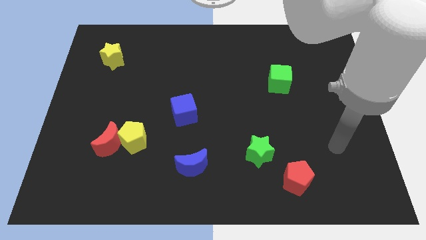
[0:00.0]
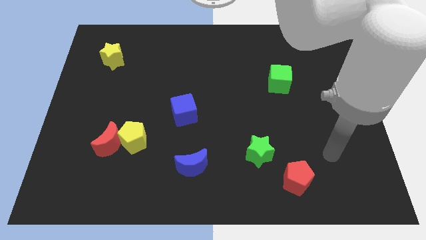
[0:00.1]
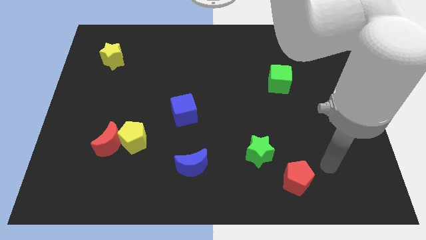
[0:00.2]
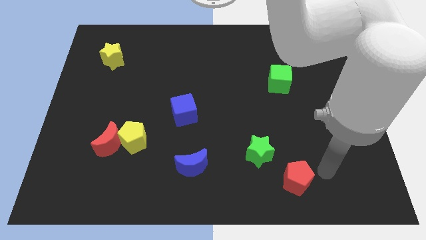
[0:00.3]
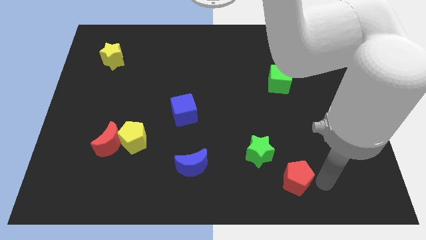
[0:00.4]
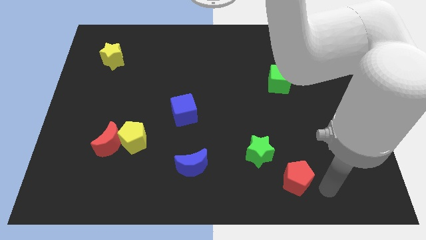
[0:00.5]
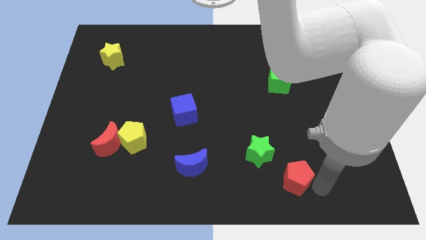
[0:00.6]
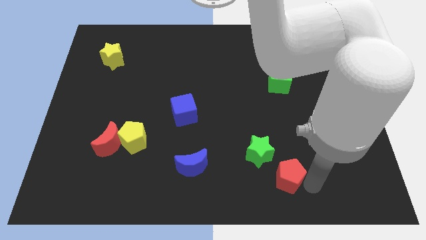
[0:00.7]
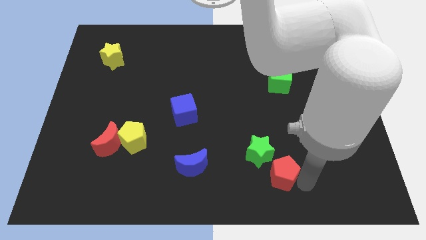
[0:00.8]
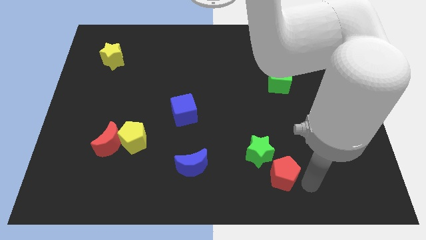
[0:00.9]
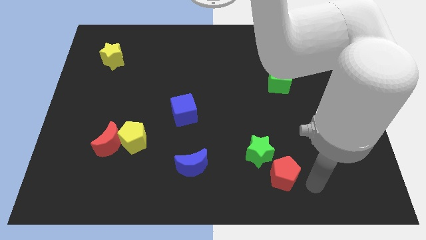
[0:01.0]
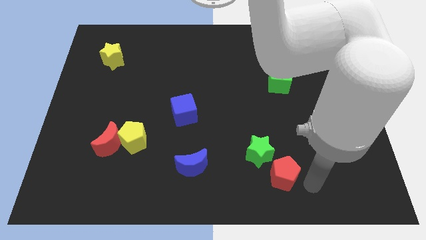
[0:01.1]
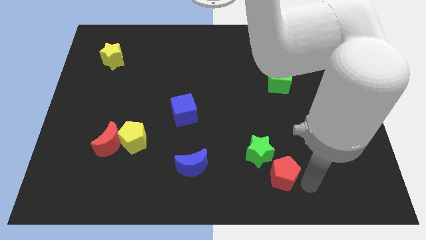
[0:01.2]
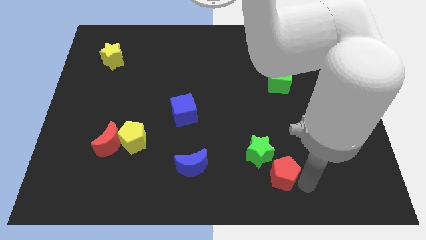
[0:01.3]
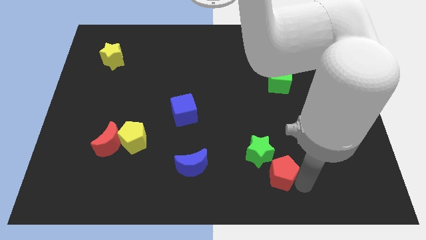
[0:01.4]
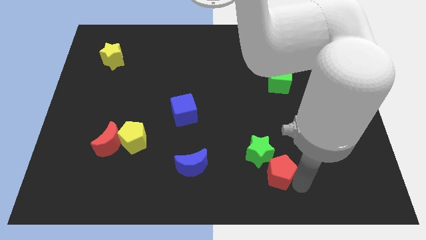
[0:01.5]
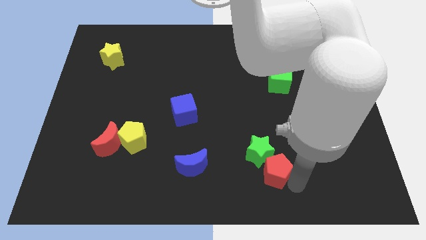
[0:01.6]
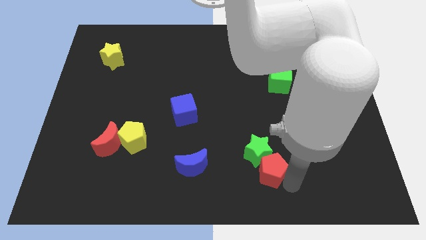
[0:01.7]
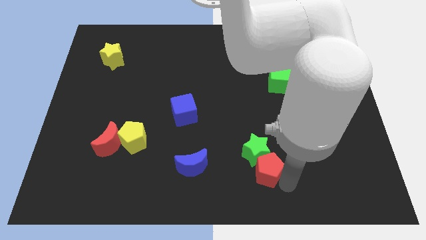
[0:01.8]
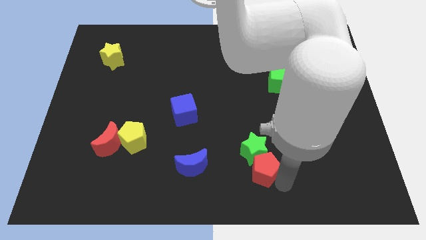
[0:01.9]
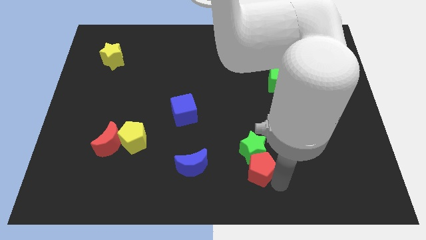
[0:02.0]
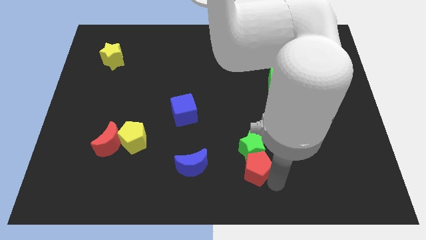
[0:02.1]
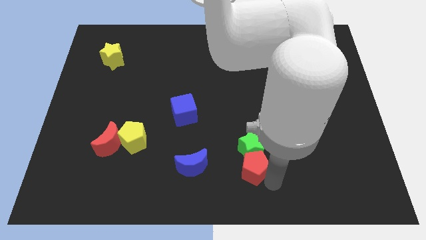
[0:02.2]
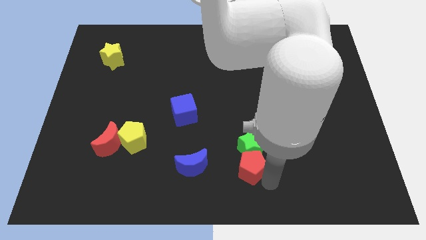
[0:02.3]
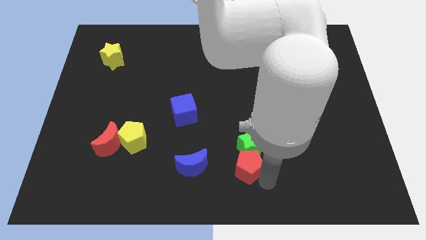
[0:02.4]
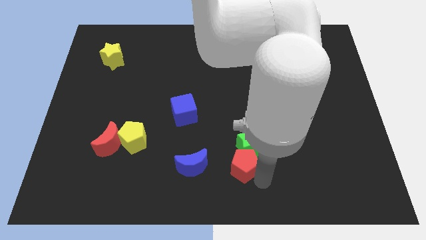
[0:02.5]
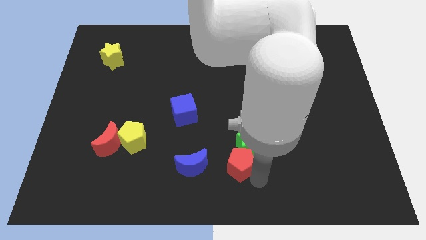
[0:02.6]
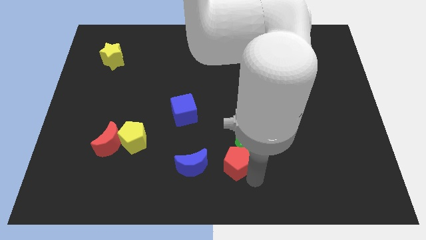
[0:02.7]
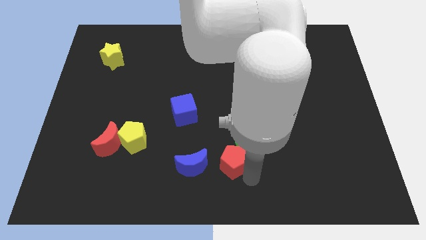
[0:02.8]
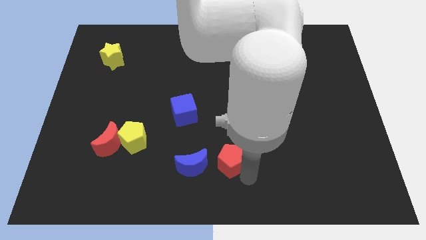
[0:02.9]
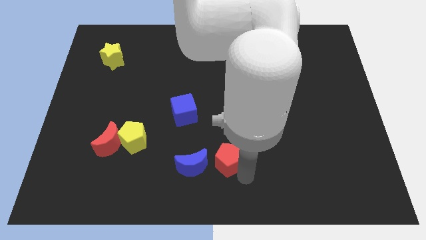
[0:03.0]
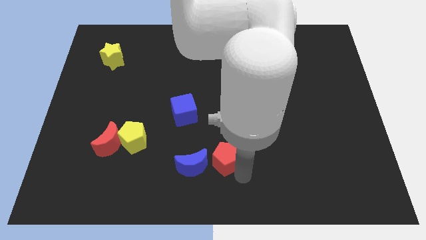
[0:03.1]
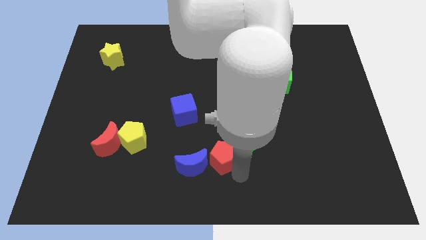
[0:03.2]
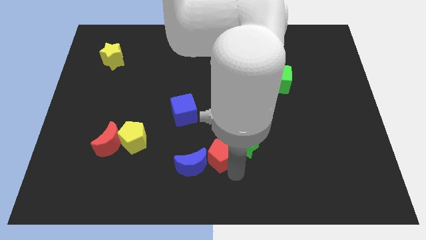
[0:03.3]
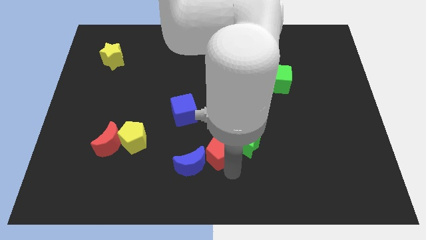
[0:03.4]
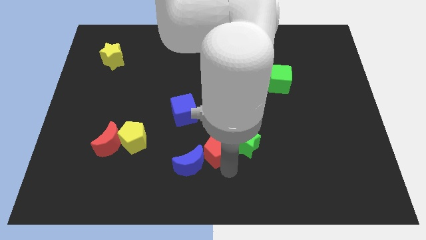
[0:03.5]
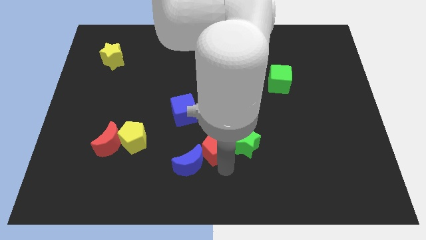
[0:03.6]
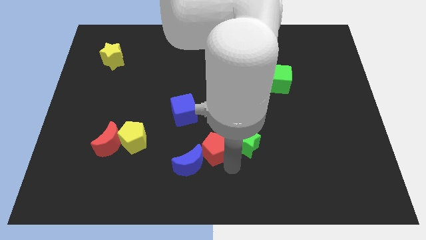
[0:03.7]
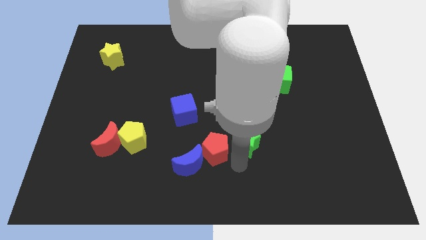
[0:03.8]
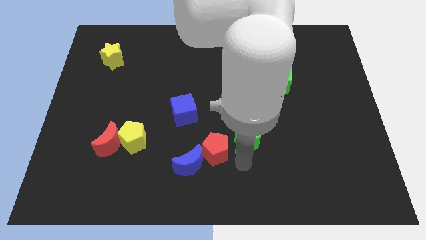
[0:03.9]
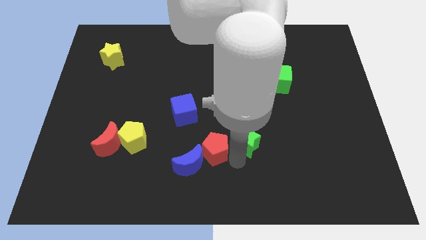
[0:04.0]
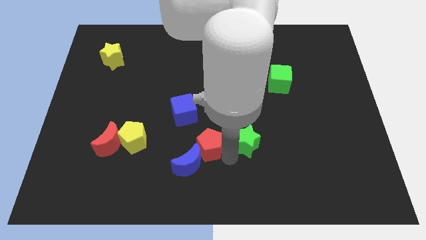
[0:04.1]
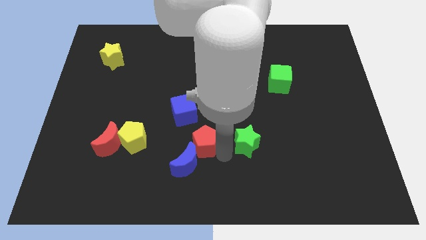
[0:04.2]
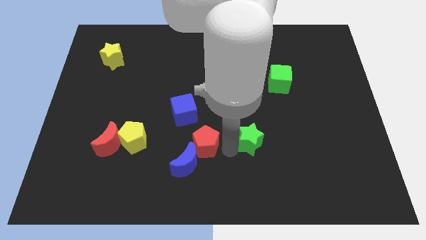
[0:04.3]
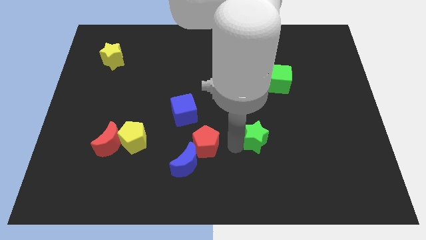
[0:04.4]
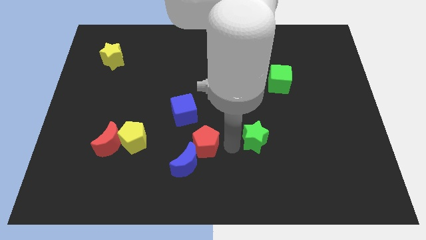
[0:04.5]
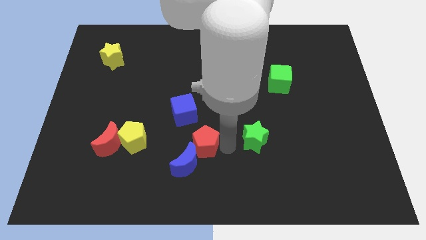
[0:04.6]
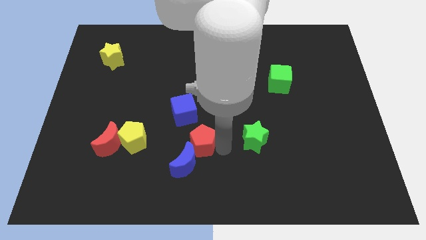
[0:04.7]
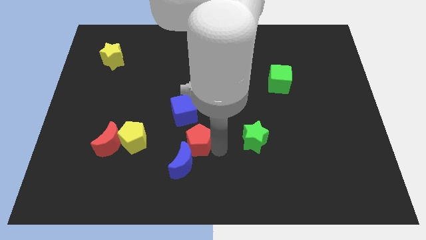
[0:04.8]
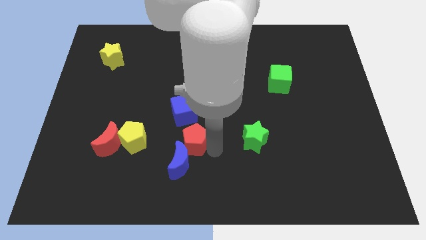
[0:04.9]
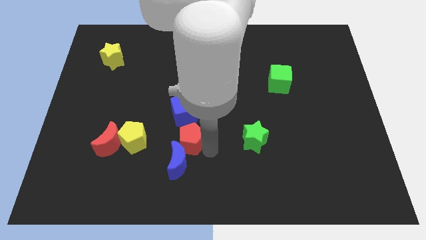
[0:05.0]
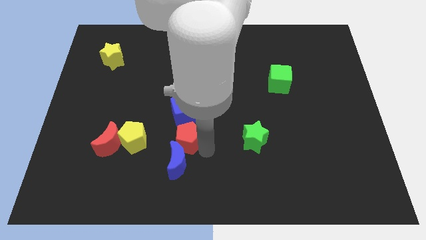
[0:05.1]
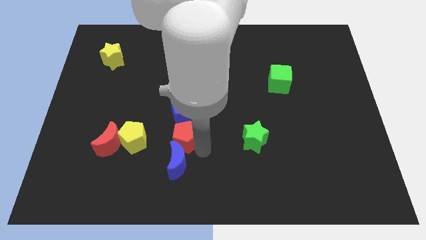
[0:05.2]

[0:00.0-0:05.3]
push the red pentagon just right of the red moon

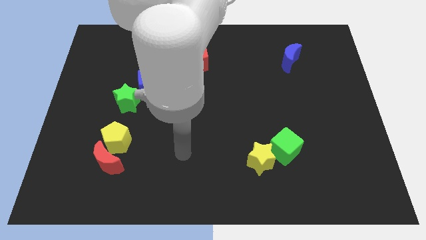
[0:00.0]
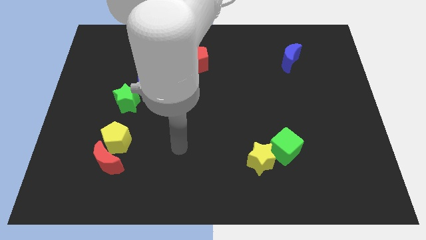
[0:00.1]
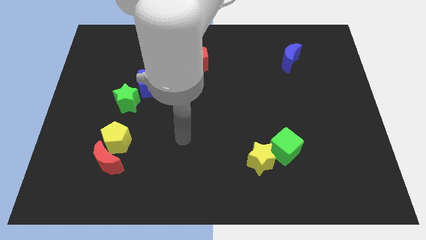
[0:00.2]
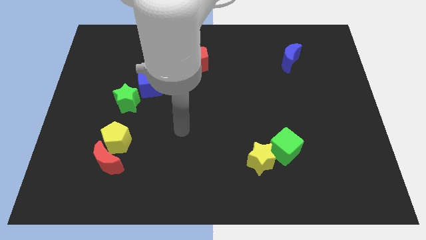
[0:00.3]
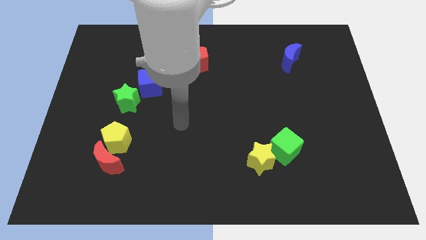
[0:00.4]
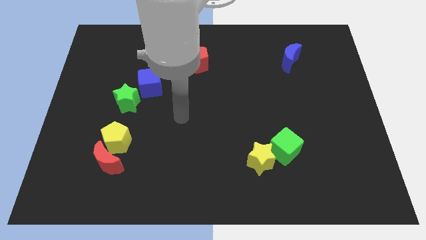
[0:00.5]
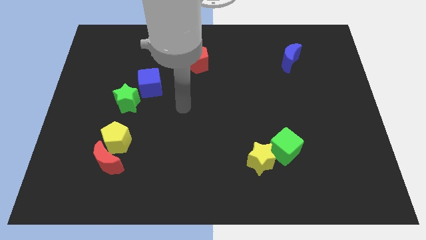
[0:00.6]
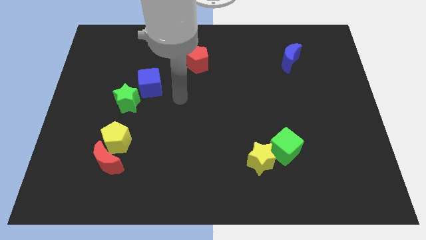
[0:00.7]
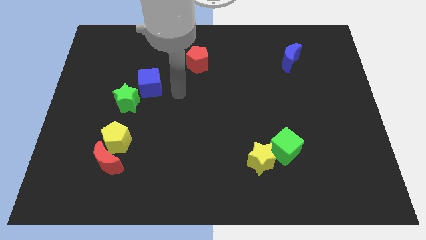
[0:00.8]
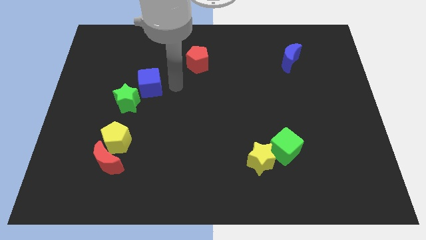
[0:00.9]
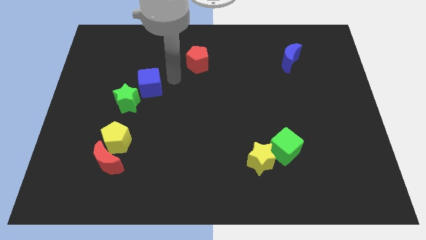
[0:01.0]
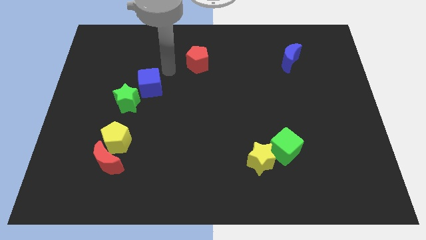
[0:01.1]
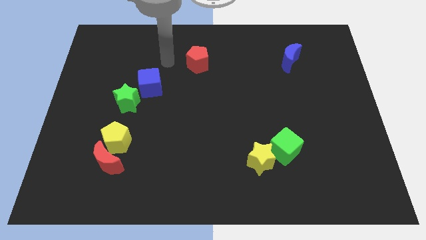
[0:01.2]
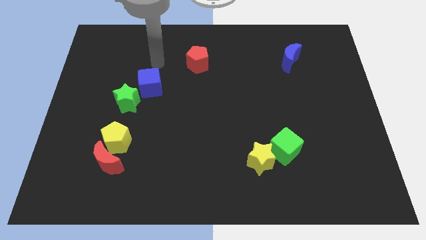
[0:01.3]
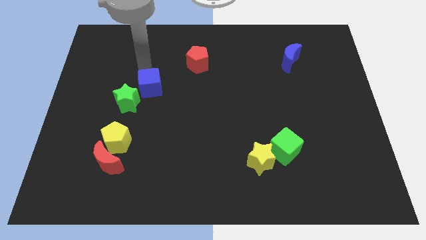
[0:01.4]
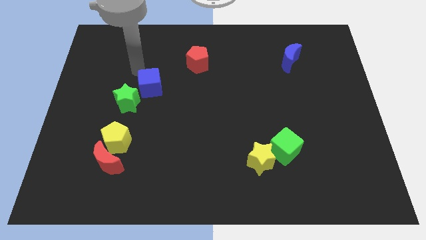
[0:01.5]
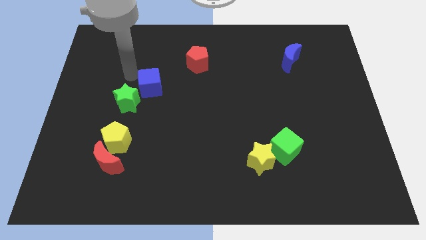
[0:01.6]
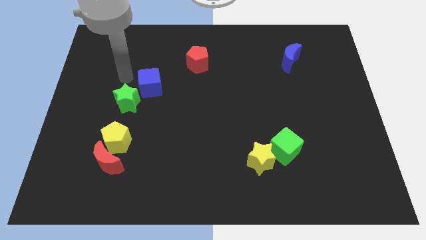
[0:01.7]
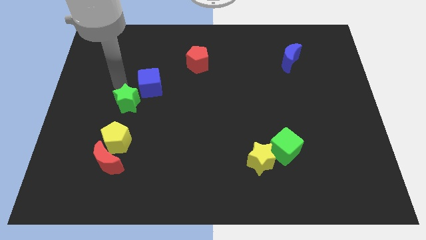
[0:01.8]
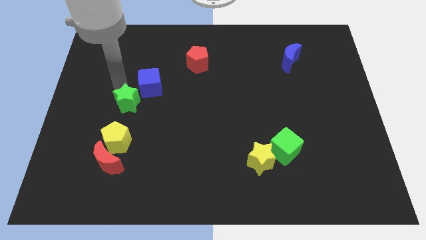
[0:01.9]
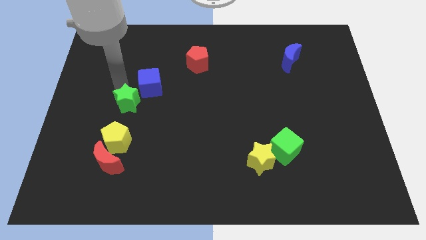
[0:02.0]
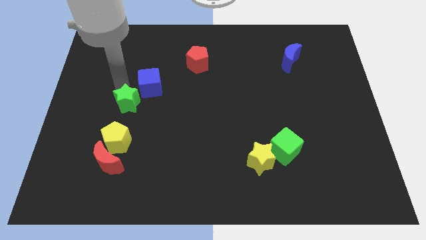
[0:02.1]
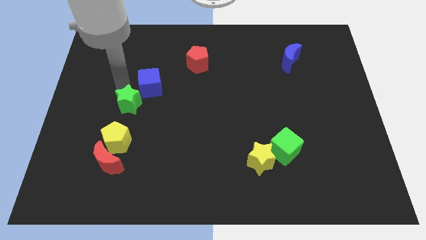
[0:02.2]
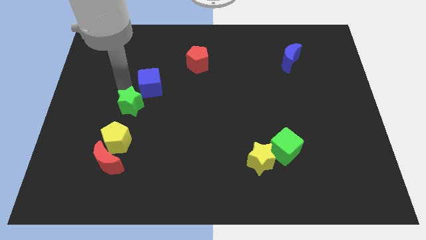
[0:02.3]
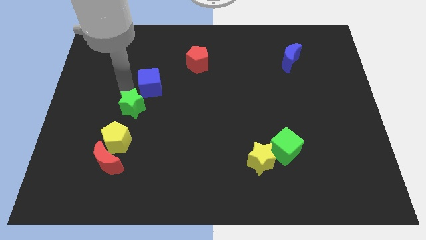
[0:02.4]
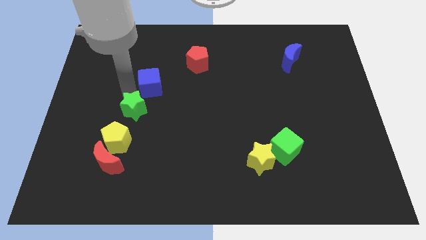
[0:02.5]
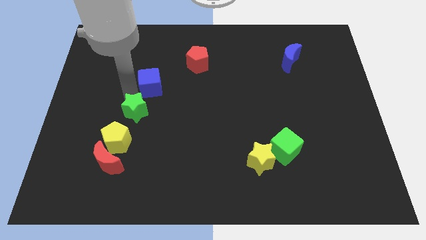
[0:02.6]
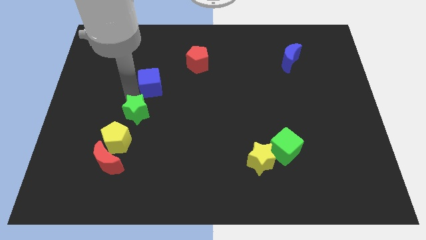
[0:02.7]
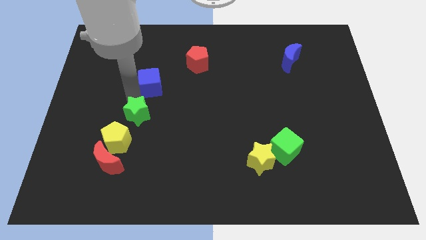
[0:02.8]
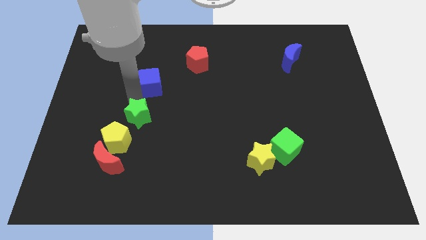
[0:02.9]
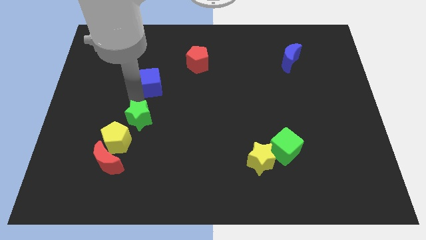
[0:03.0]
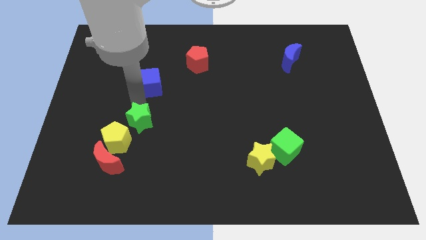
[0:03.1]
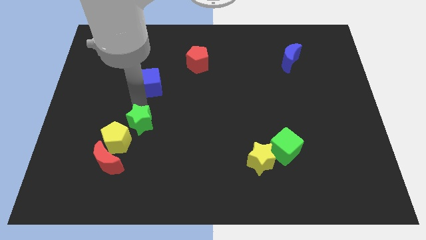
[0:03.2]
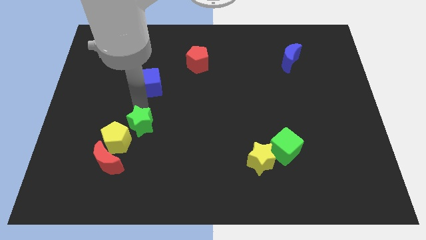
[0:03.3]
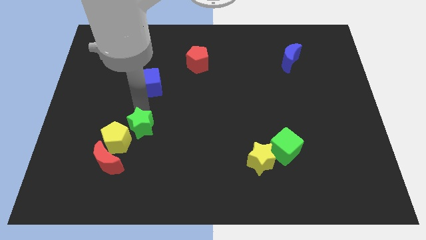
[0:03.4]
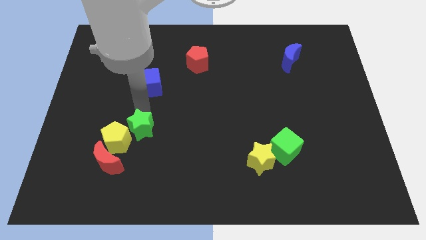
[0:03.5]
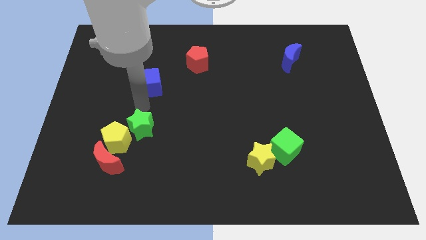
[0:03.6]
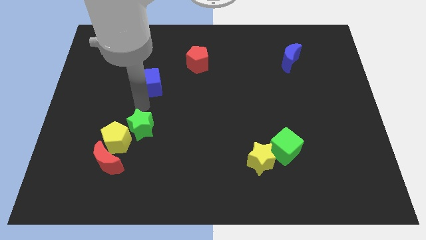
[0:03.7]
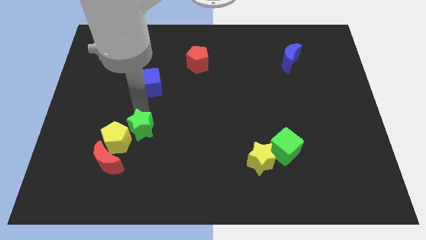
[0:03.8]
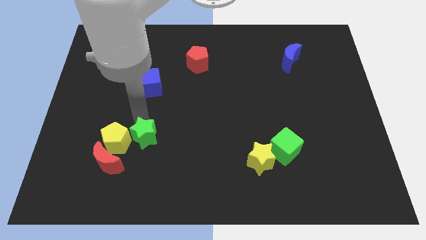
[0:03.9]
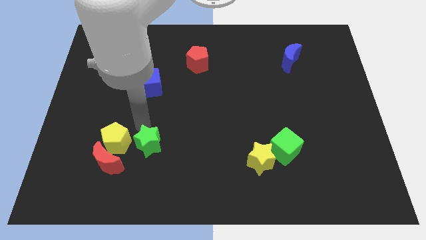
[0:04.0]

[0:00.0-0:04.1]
slide the green star to the bottom right of the yellow pentagon
